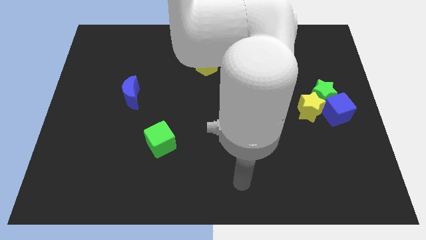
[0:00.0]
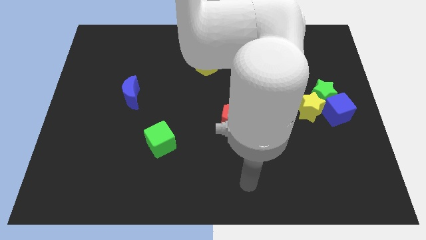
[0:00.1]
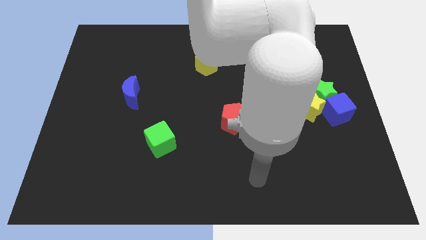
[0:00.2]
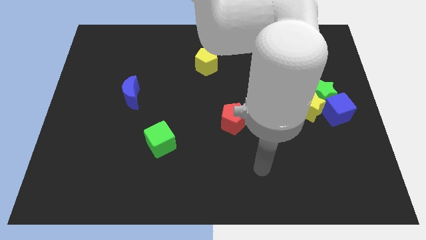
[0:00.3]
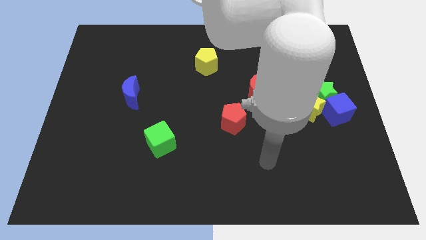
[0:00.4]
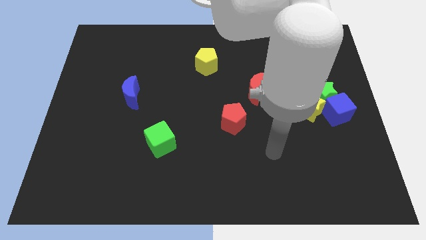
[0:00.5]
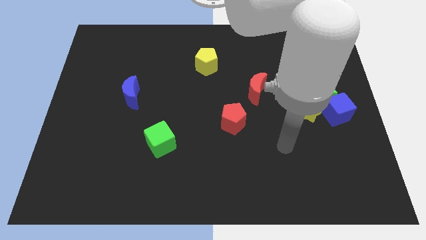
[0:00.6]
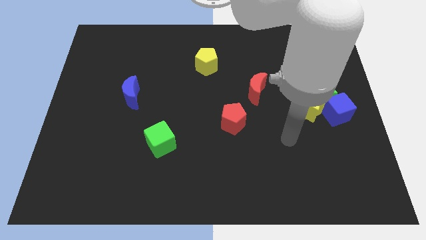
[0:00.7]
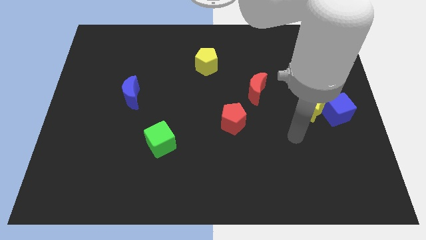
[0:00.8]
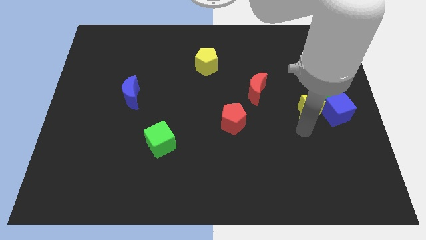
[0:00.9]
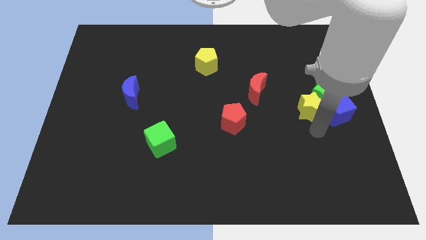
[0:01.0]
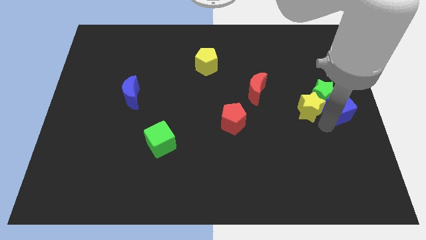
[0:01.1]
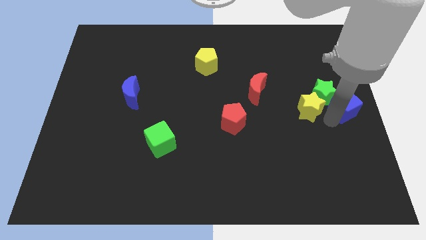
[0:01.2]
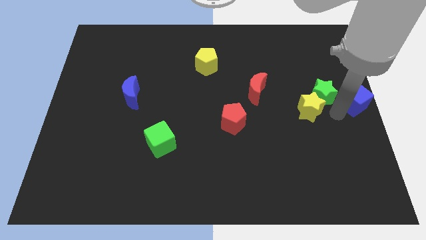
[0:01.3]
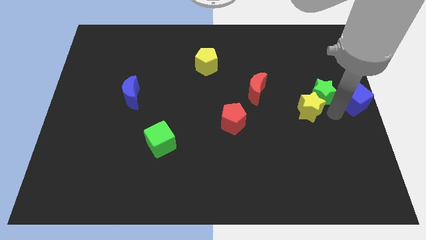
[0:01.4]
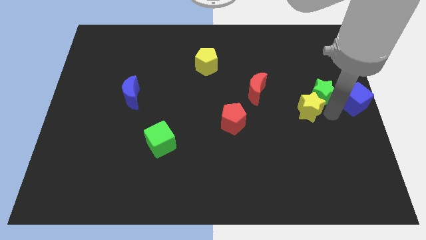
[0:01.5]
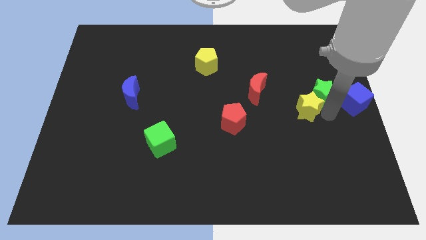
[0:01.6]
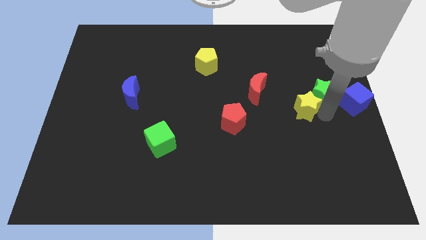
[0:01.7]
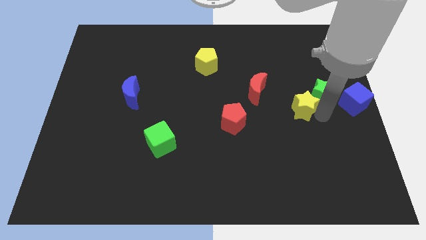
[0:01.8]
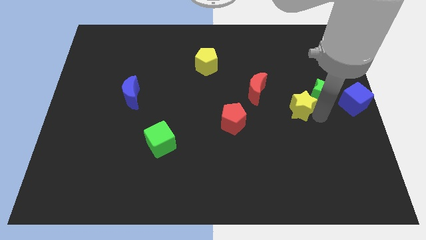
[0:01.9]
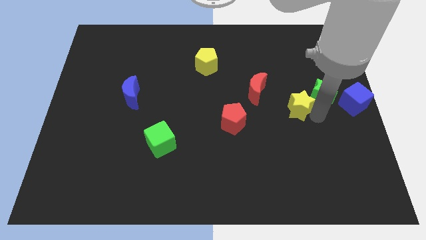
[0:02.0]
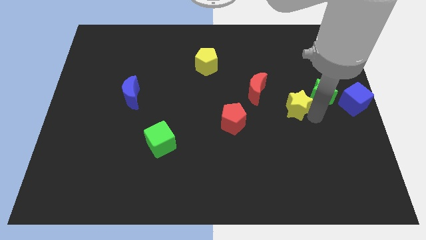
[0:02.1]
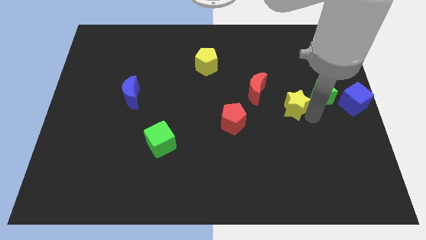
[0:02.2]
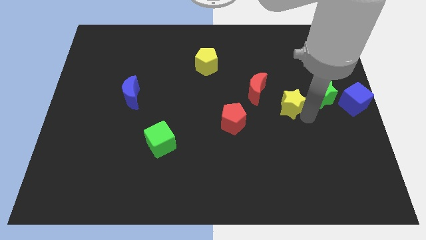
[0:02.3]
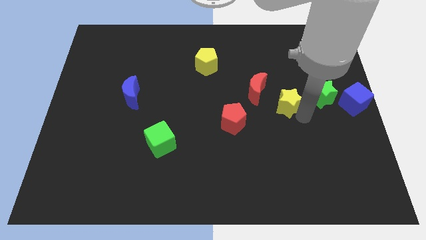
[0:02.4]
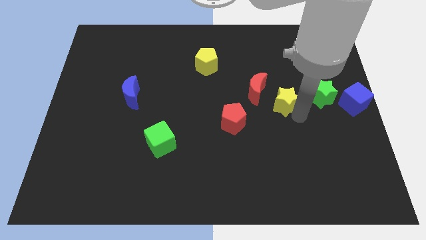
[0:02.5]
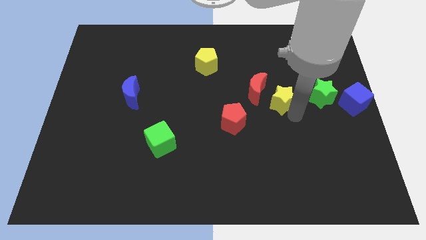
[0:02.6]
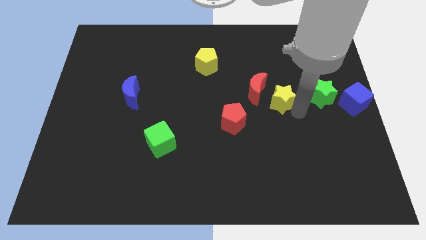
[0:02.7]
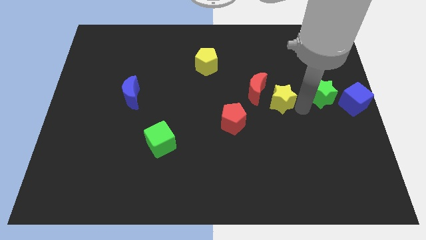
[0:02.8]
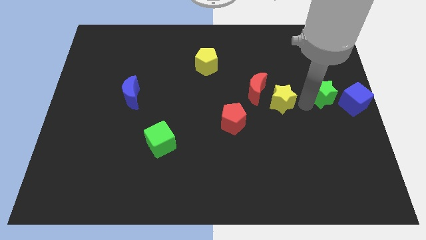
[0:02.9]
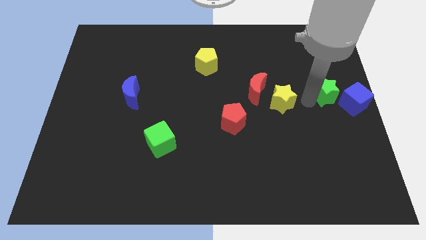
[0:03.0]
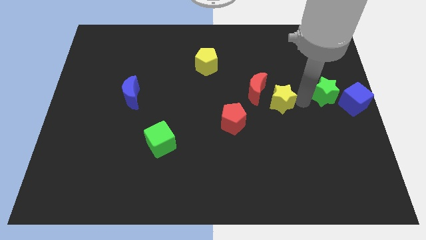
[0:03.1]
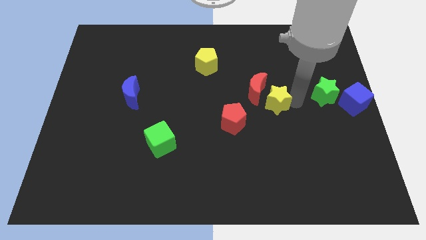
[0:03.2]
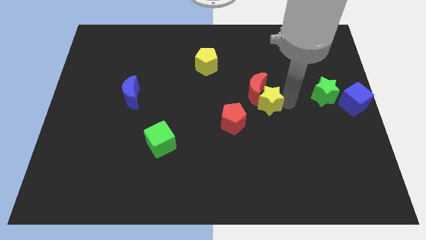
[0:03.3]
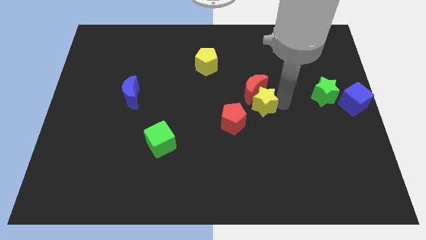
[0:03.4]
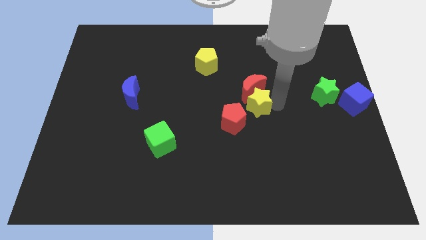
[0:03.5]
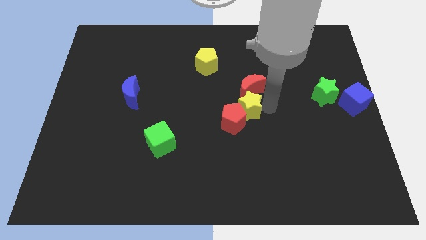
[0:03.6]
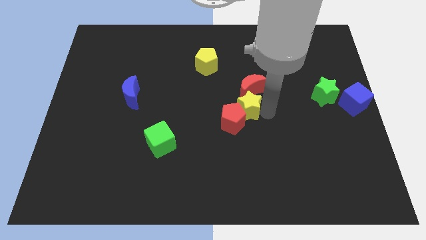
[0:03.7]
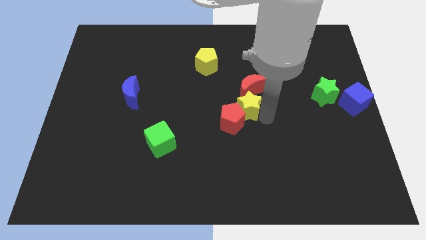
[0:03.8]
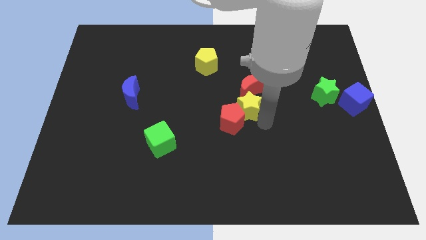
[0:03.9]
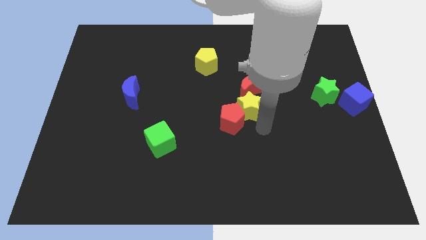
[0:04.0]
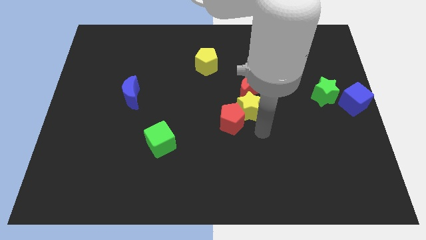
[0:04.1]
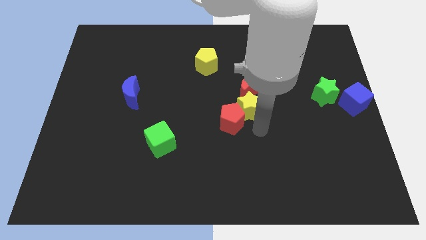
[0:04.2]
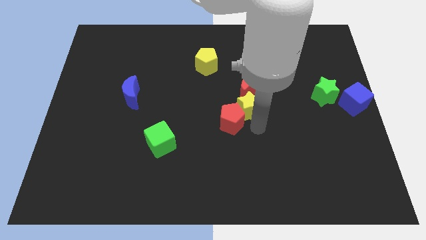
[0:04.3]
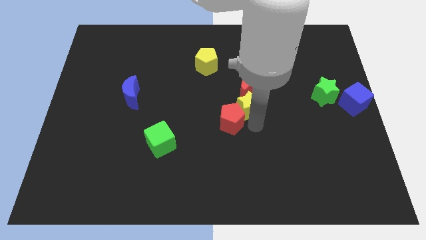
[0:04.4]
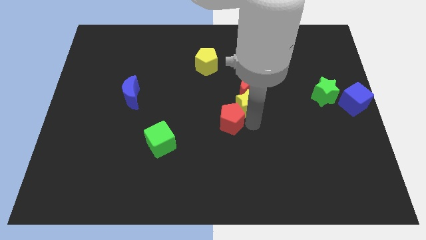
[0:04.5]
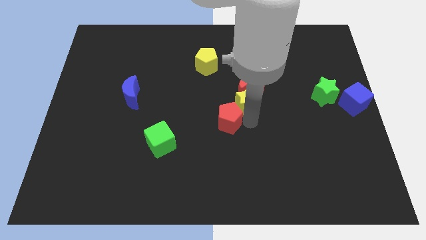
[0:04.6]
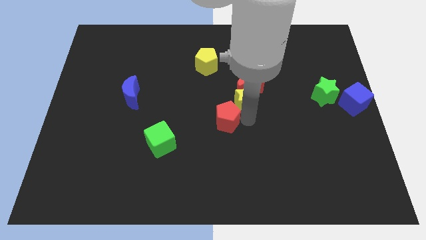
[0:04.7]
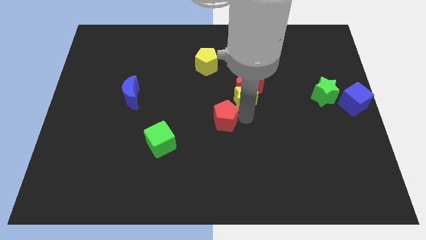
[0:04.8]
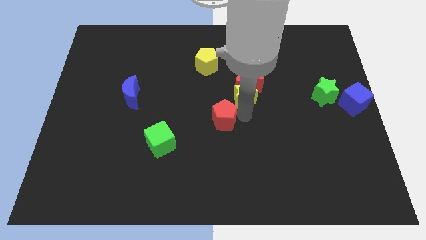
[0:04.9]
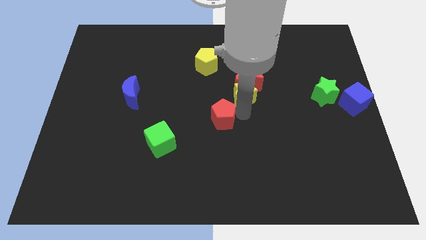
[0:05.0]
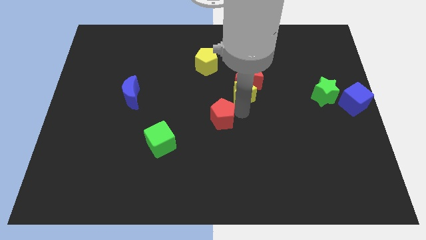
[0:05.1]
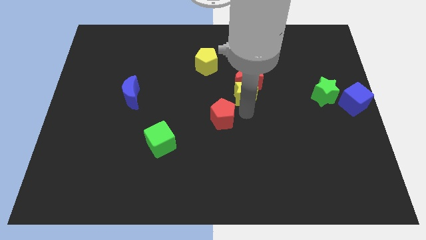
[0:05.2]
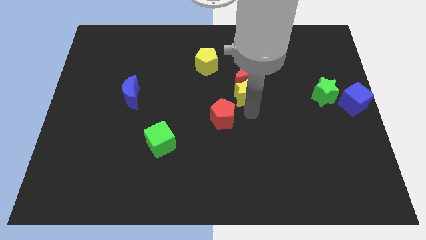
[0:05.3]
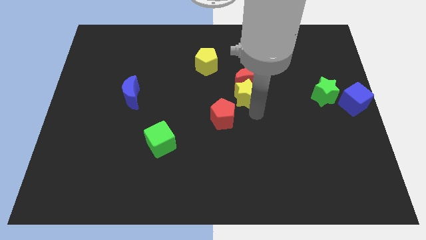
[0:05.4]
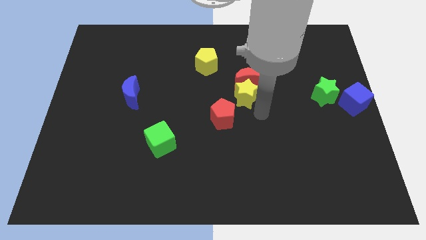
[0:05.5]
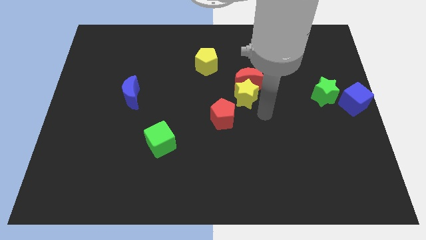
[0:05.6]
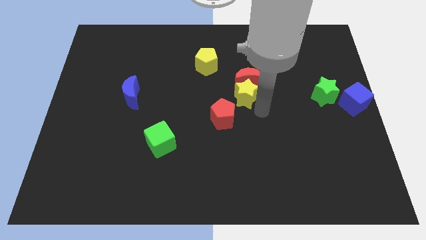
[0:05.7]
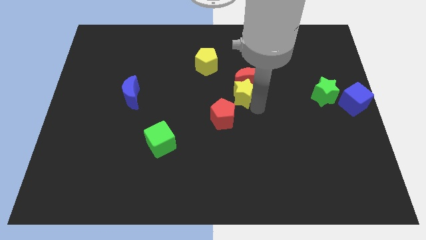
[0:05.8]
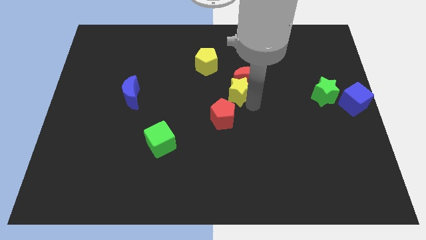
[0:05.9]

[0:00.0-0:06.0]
push the yellow star to the bottom right side of the yellow pentagon

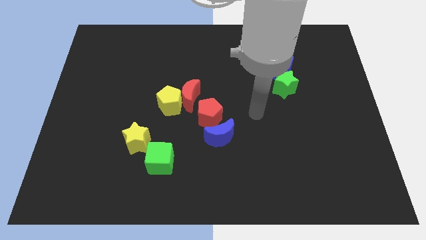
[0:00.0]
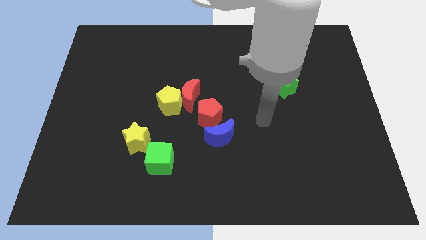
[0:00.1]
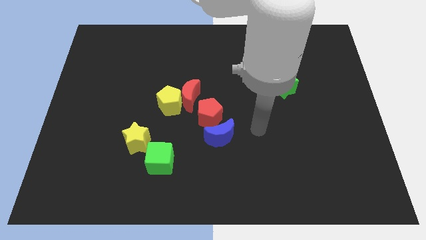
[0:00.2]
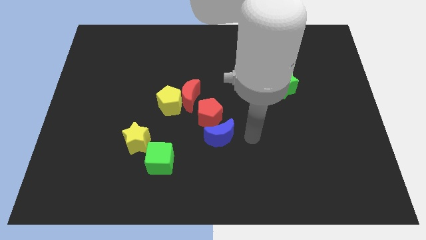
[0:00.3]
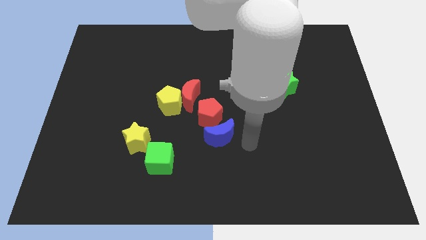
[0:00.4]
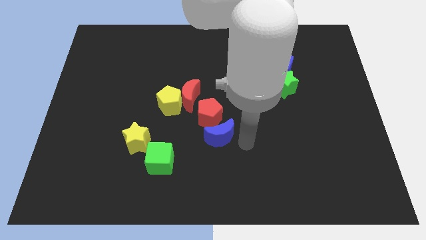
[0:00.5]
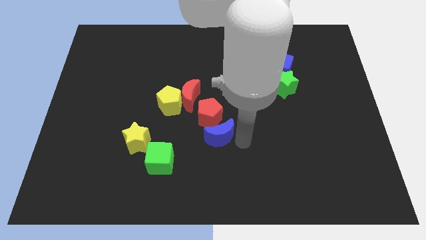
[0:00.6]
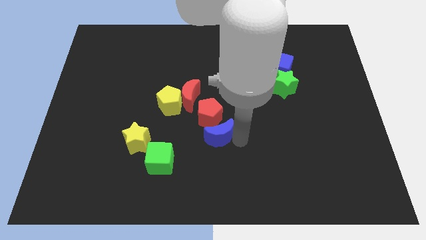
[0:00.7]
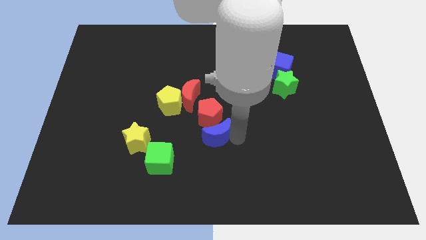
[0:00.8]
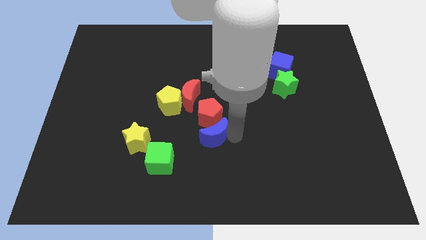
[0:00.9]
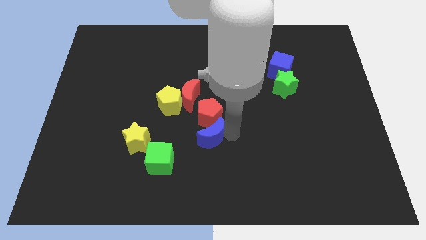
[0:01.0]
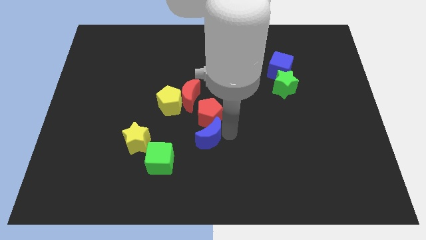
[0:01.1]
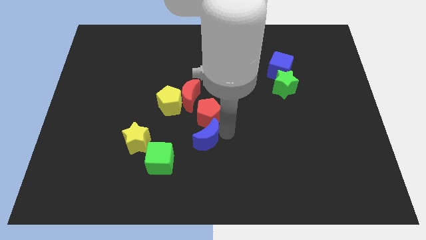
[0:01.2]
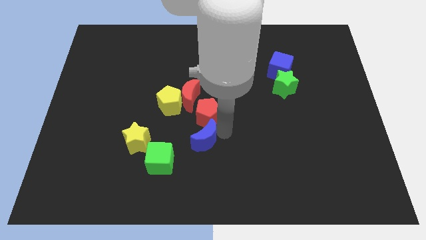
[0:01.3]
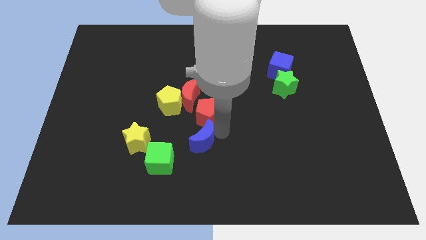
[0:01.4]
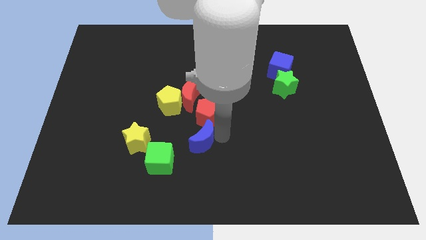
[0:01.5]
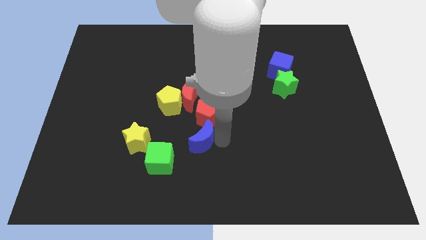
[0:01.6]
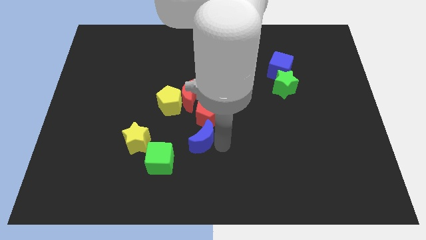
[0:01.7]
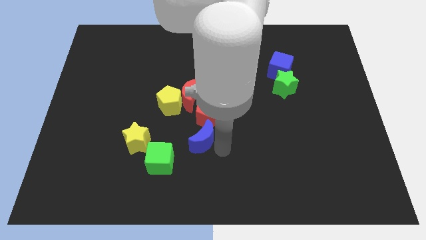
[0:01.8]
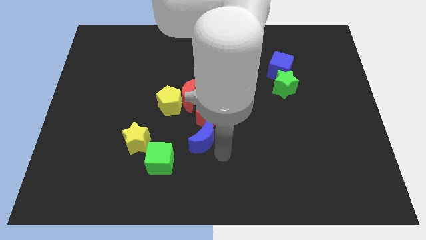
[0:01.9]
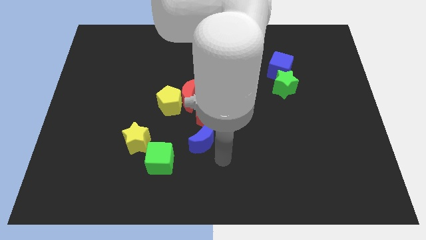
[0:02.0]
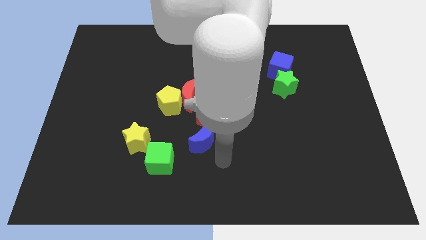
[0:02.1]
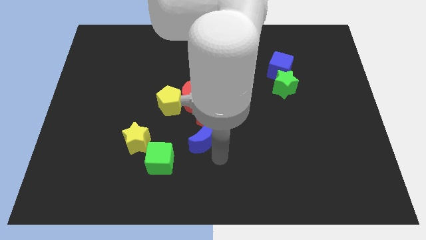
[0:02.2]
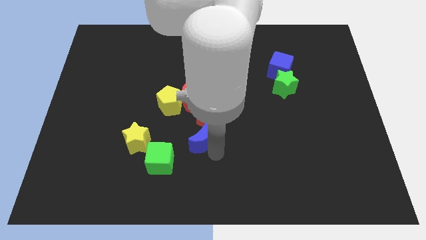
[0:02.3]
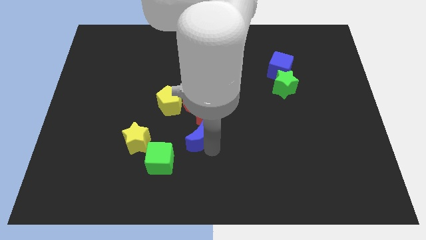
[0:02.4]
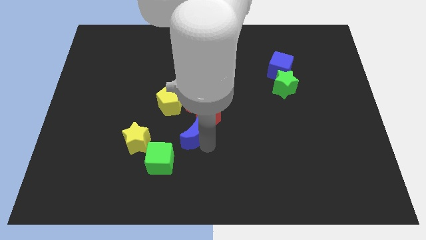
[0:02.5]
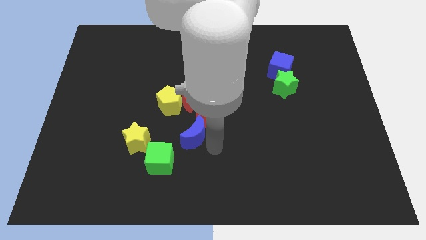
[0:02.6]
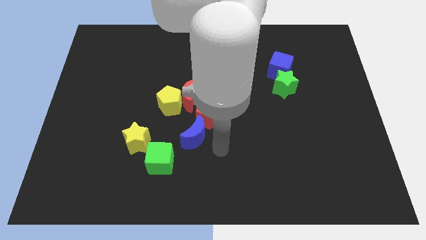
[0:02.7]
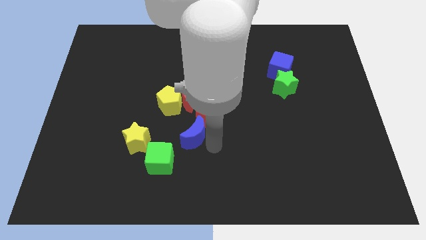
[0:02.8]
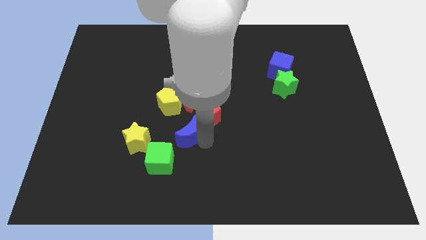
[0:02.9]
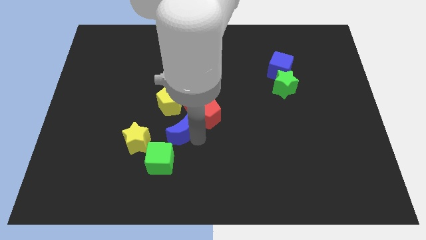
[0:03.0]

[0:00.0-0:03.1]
push the blue moon to the top side of the green cube
